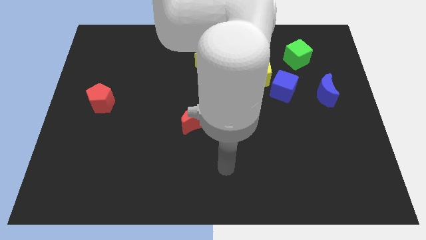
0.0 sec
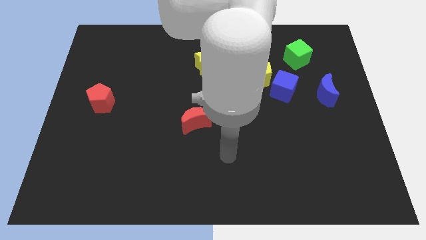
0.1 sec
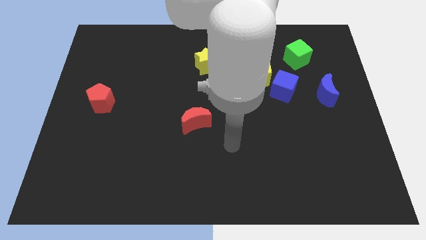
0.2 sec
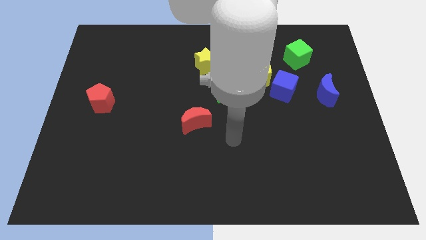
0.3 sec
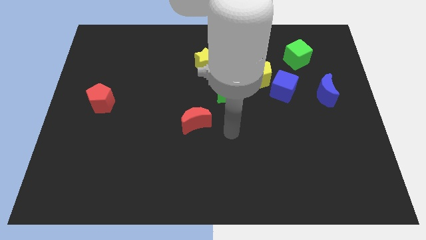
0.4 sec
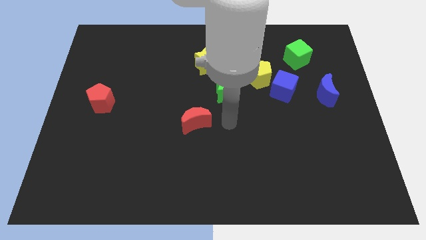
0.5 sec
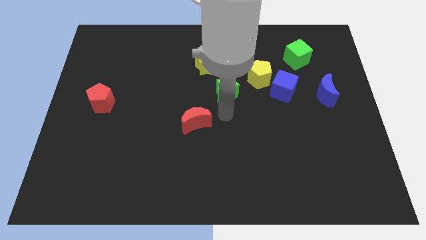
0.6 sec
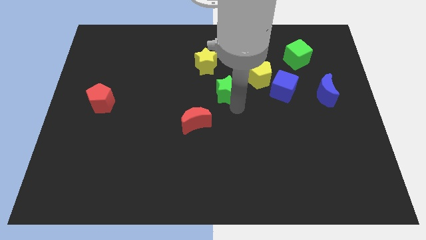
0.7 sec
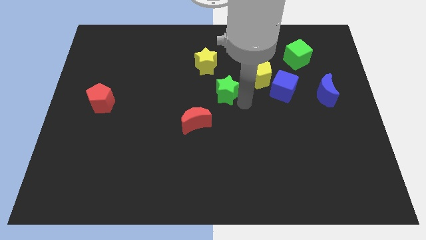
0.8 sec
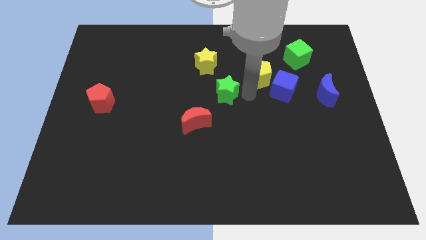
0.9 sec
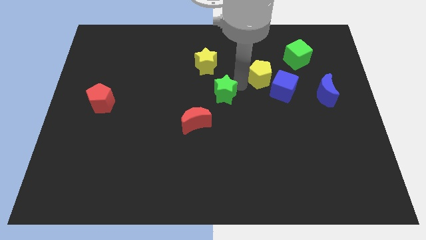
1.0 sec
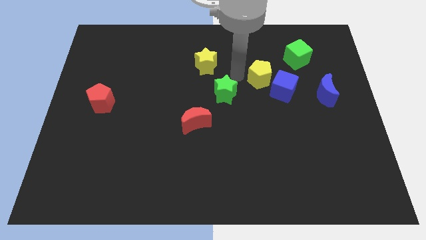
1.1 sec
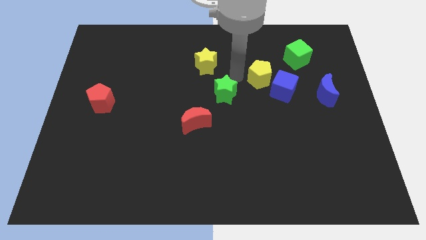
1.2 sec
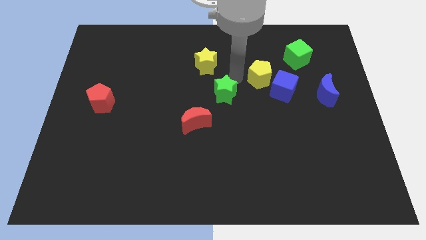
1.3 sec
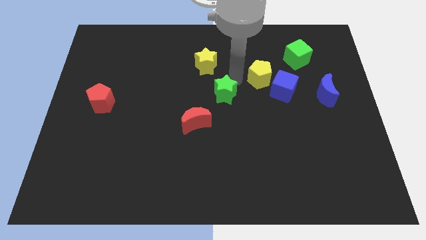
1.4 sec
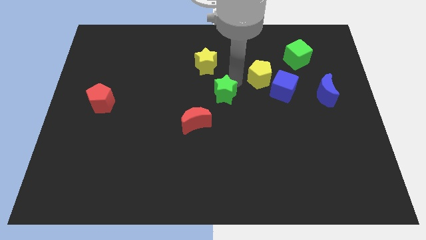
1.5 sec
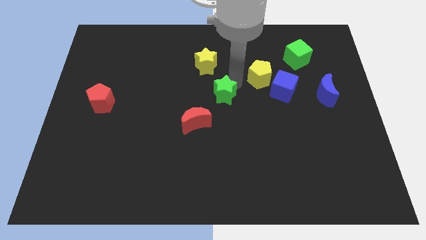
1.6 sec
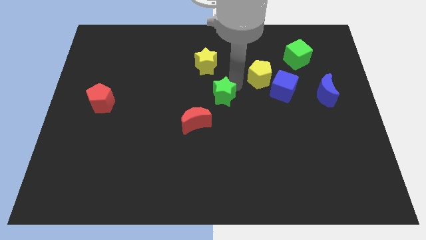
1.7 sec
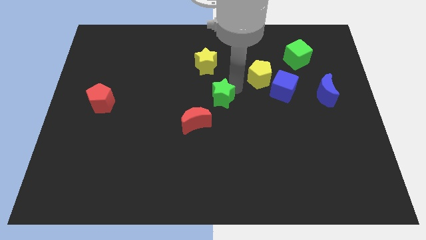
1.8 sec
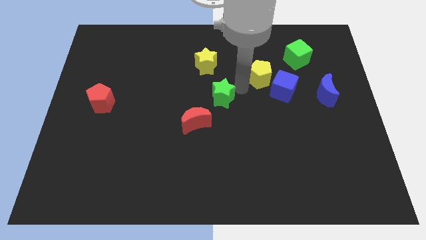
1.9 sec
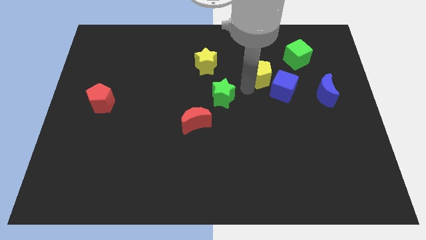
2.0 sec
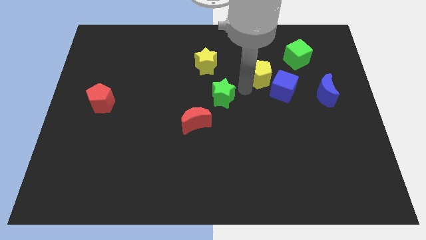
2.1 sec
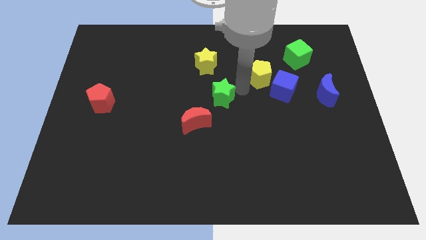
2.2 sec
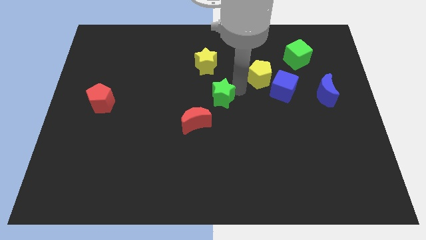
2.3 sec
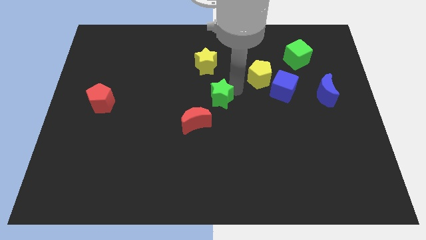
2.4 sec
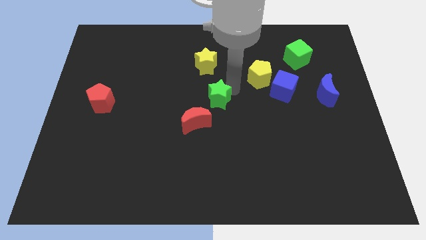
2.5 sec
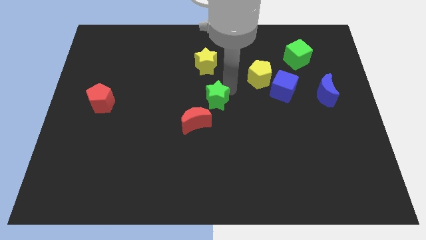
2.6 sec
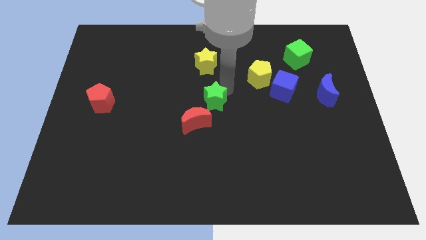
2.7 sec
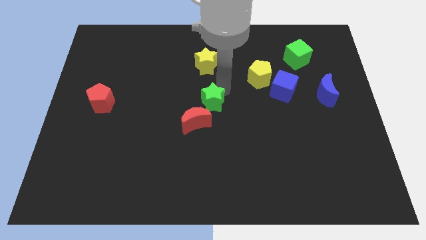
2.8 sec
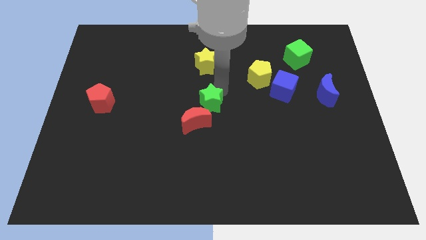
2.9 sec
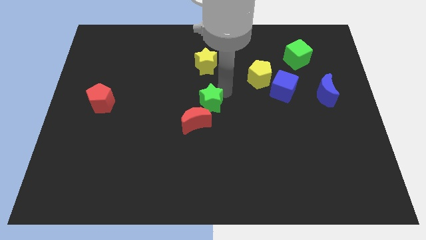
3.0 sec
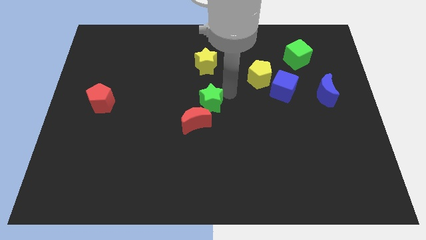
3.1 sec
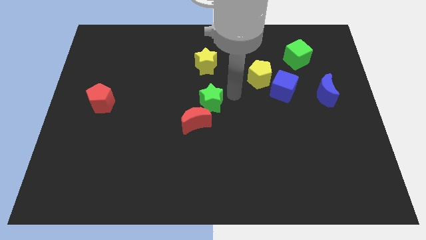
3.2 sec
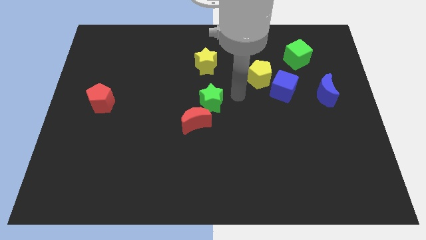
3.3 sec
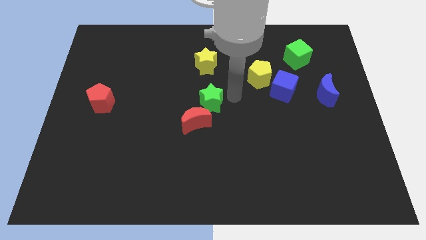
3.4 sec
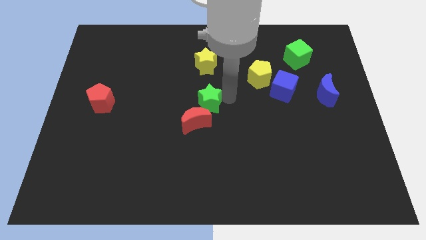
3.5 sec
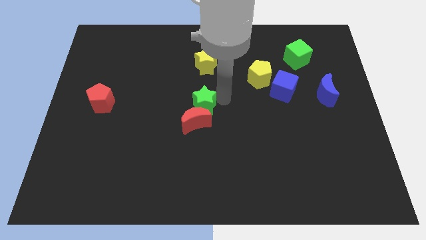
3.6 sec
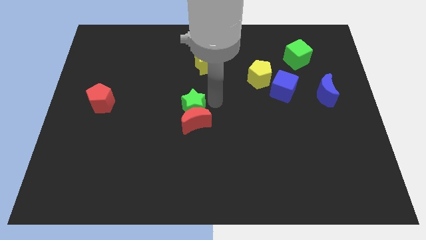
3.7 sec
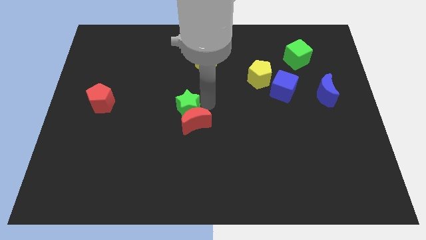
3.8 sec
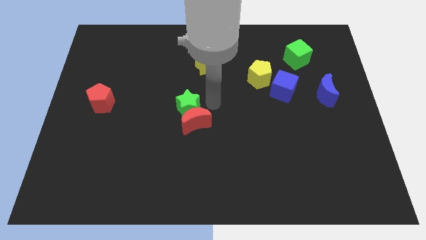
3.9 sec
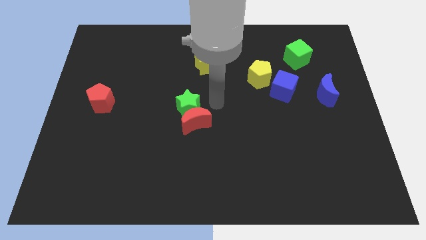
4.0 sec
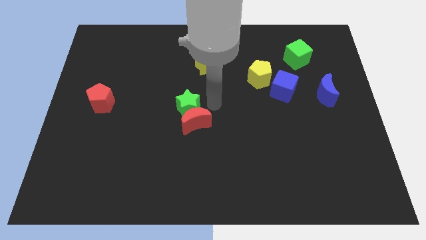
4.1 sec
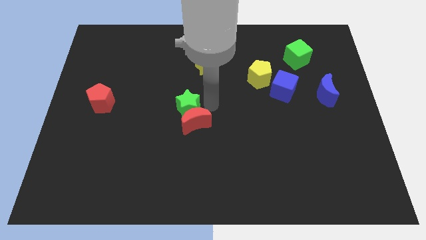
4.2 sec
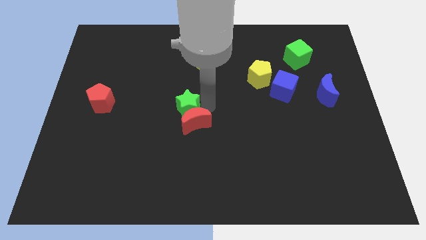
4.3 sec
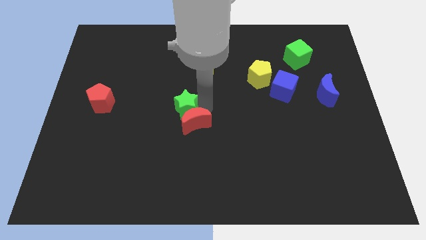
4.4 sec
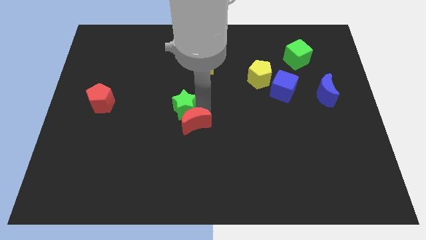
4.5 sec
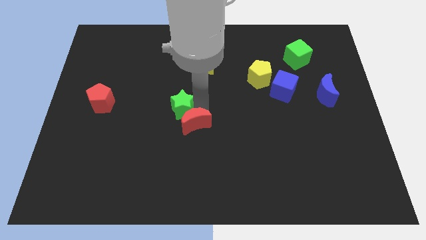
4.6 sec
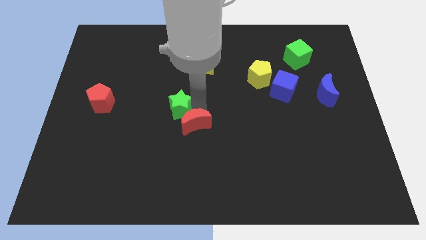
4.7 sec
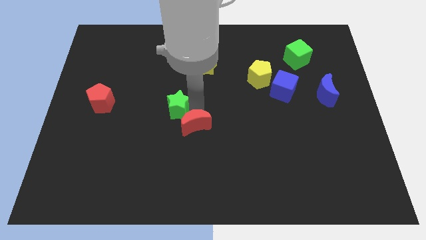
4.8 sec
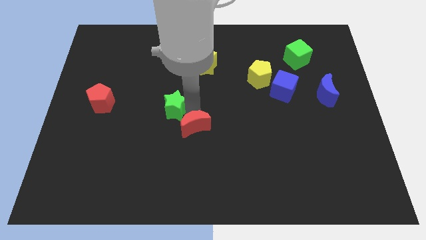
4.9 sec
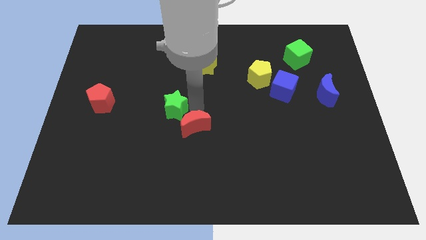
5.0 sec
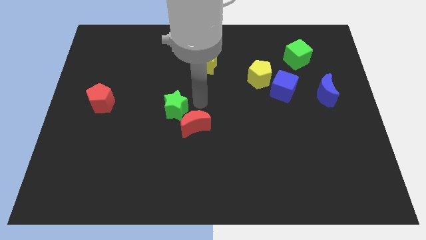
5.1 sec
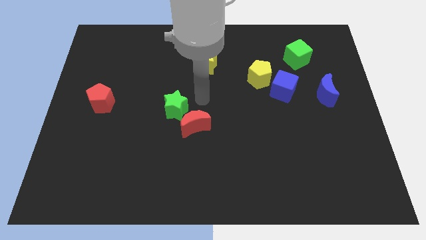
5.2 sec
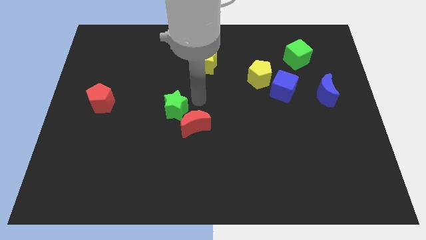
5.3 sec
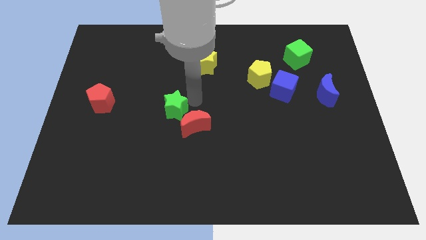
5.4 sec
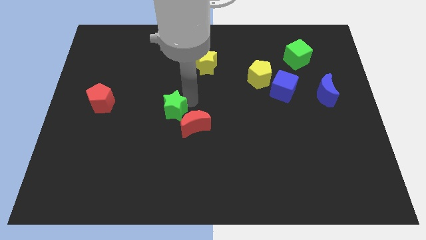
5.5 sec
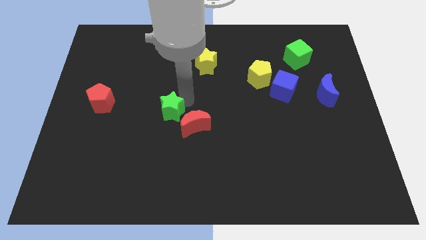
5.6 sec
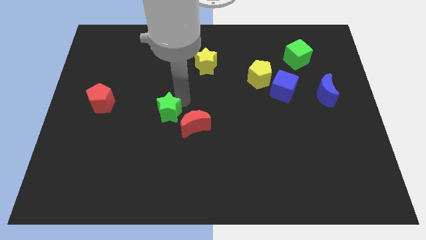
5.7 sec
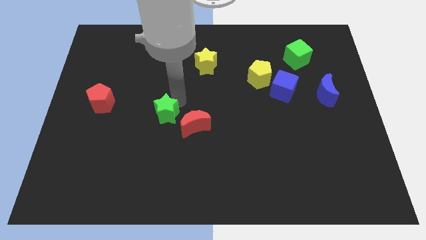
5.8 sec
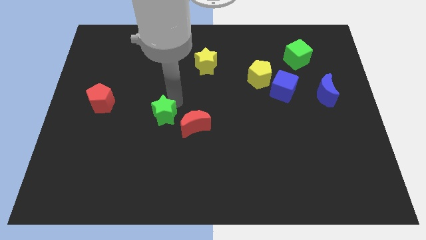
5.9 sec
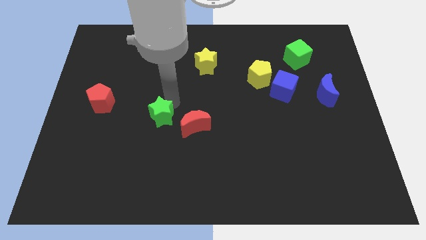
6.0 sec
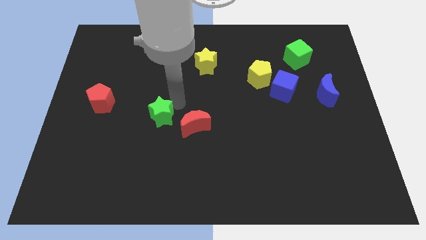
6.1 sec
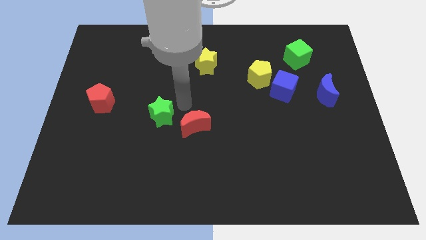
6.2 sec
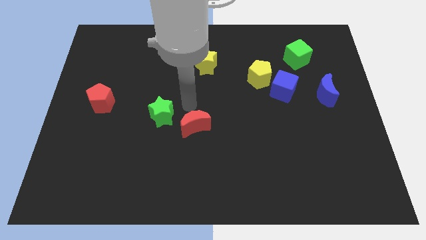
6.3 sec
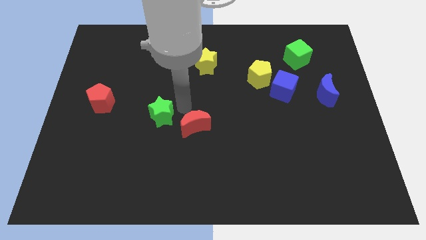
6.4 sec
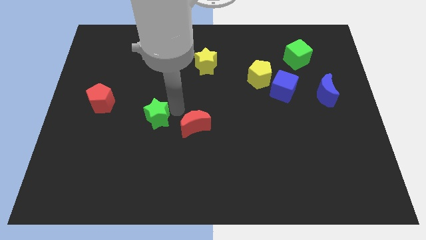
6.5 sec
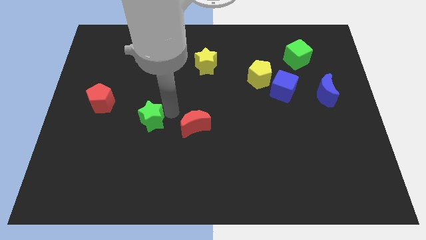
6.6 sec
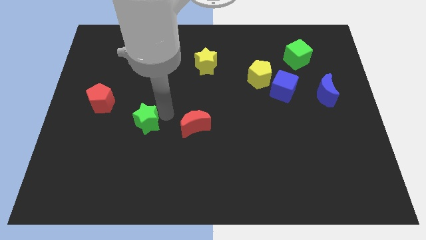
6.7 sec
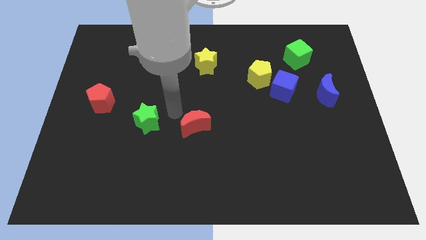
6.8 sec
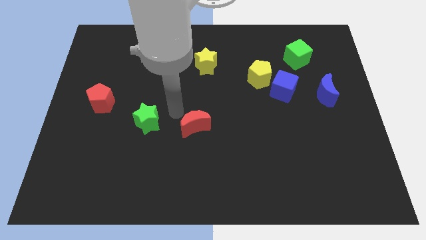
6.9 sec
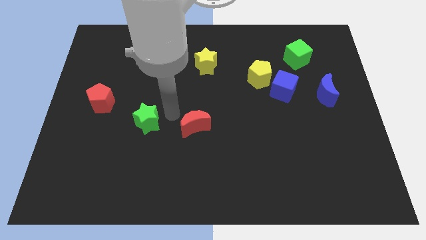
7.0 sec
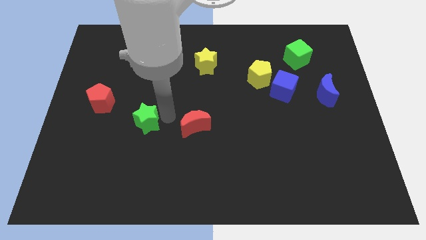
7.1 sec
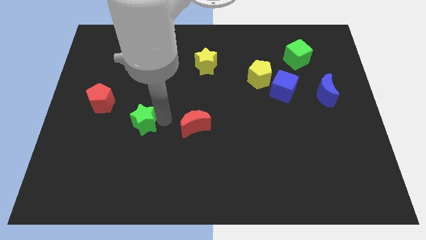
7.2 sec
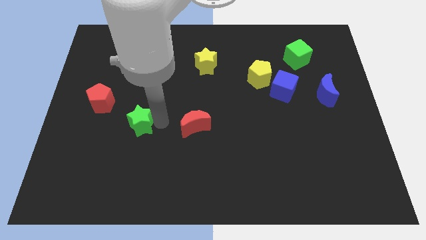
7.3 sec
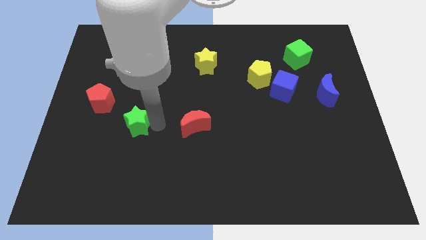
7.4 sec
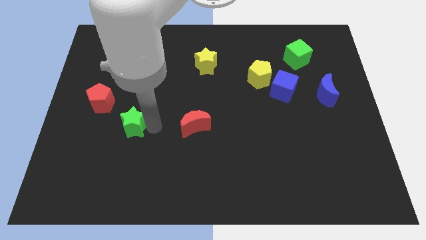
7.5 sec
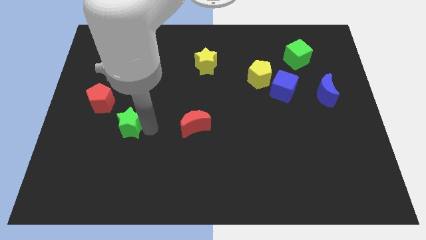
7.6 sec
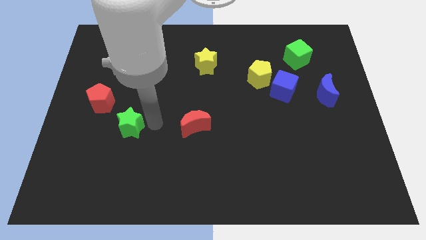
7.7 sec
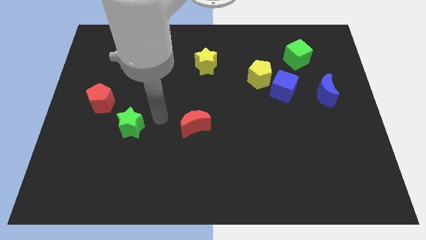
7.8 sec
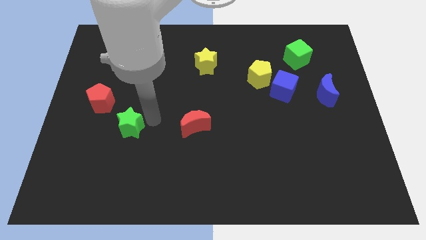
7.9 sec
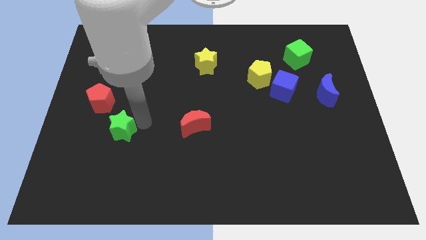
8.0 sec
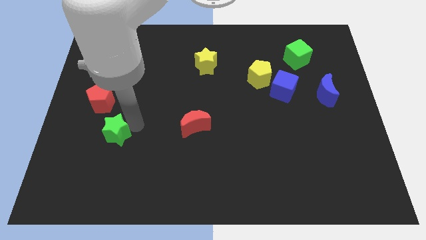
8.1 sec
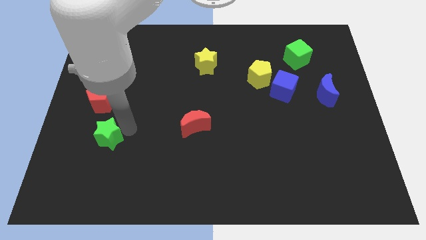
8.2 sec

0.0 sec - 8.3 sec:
push the green star to the bottom of the red pentagon
